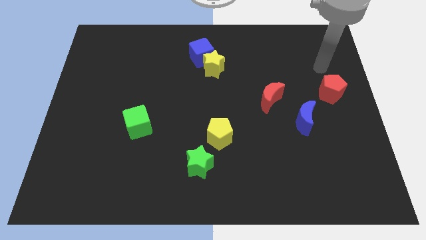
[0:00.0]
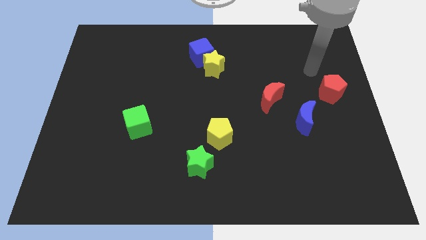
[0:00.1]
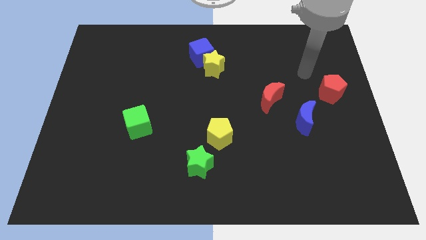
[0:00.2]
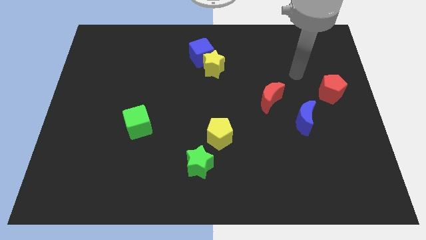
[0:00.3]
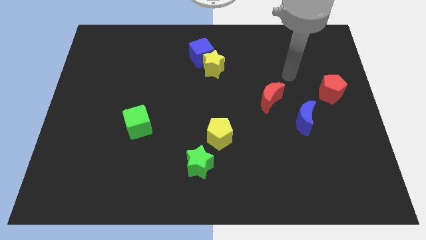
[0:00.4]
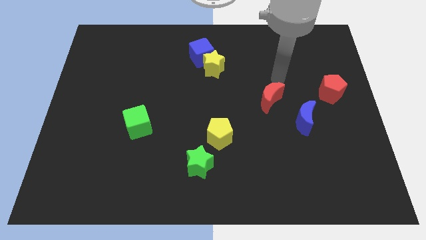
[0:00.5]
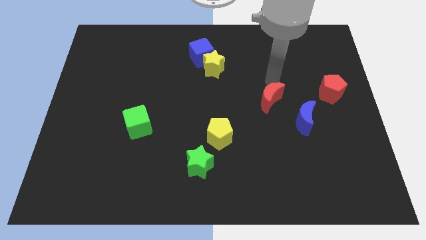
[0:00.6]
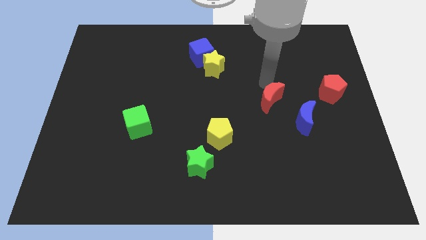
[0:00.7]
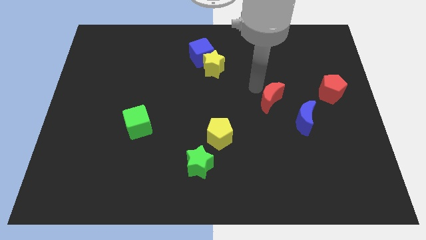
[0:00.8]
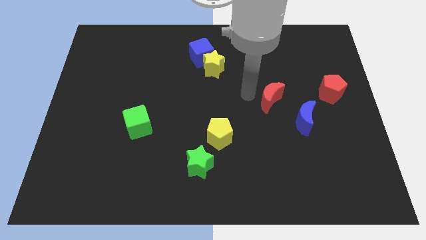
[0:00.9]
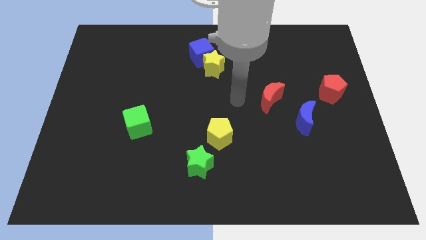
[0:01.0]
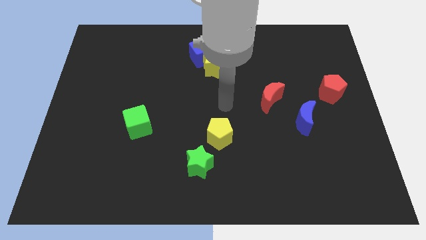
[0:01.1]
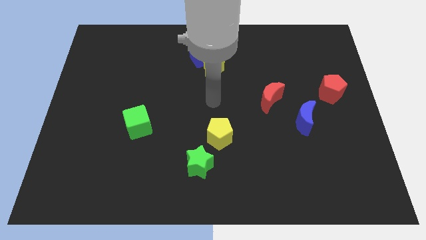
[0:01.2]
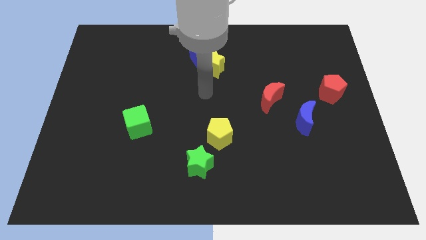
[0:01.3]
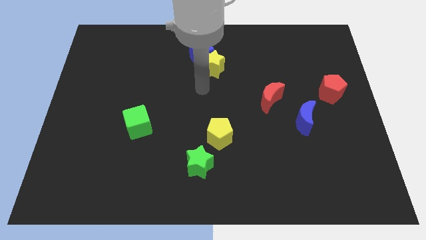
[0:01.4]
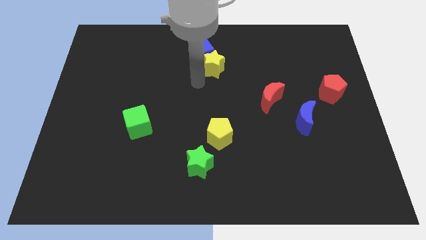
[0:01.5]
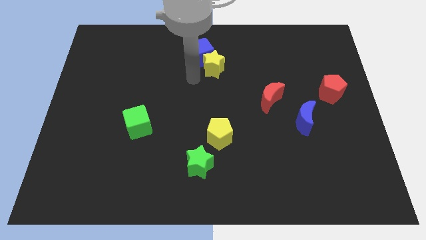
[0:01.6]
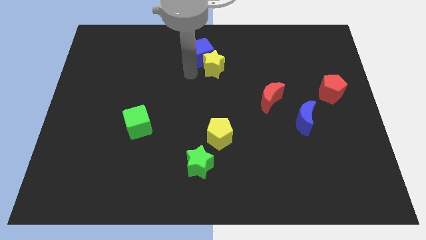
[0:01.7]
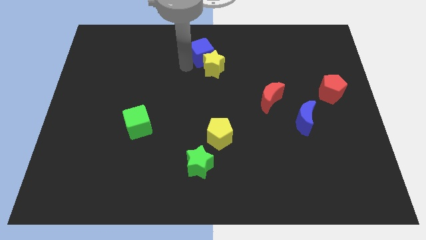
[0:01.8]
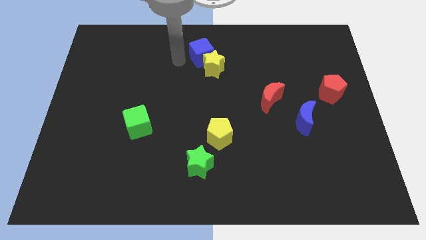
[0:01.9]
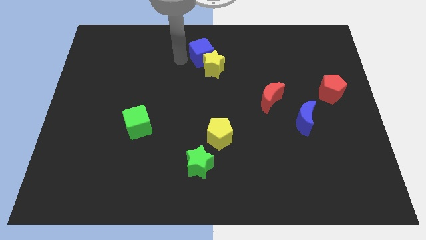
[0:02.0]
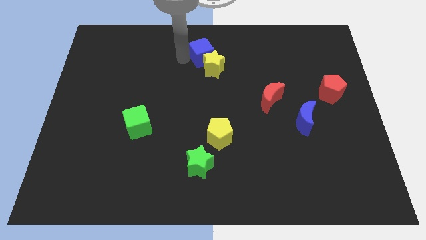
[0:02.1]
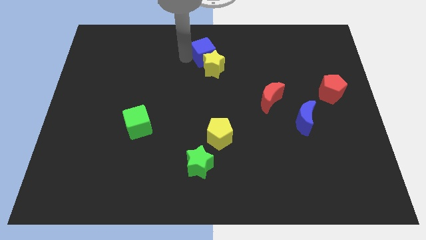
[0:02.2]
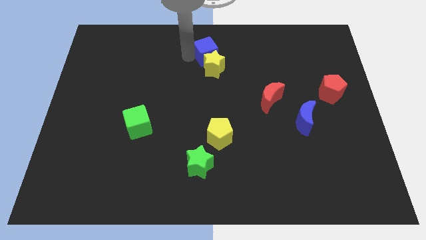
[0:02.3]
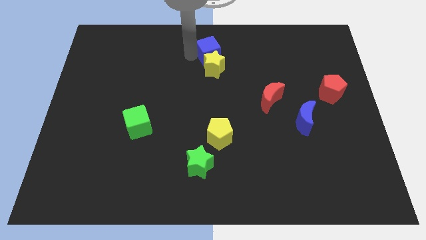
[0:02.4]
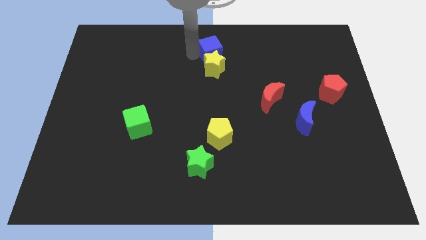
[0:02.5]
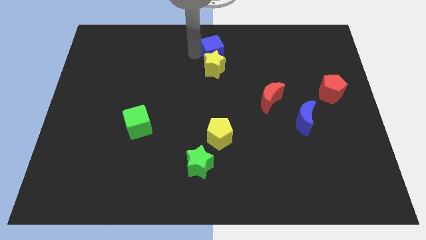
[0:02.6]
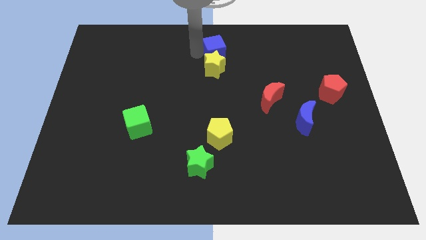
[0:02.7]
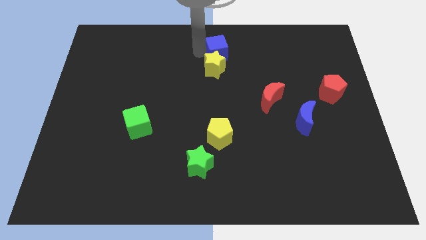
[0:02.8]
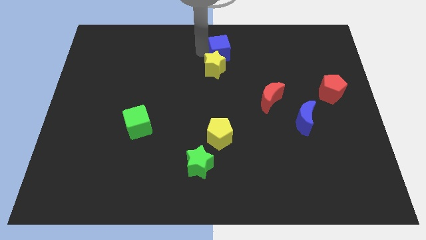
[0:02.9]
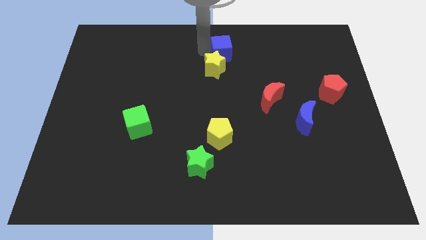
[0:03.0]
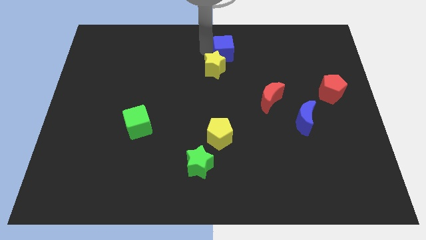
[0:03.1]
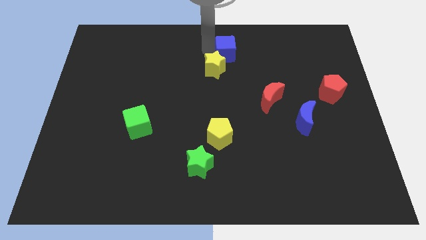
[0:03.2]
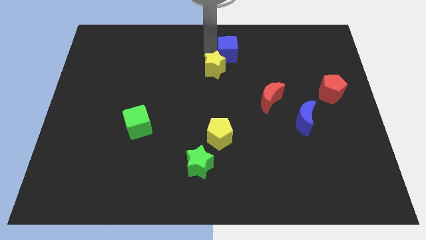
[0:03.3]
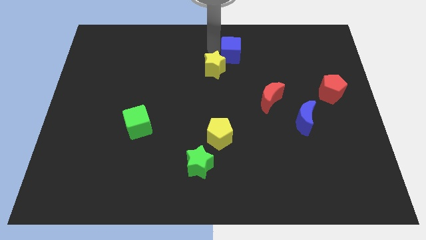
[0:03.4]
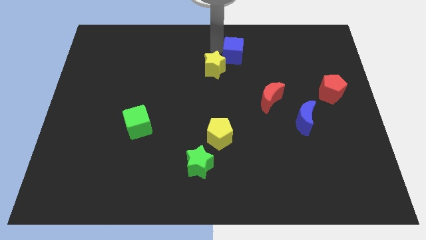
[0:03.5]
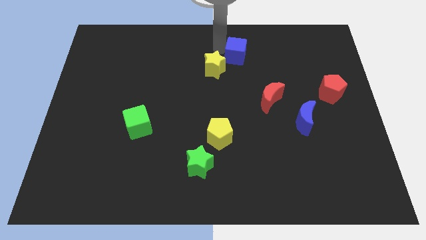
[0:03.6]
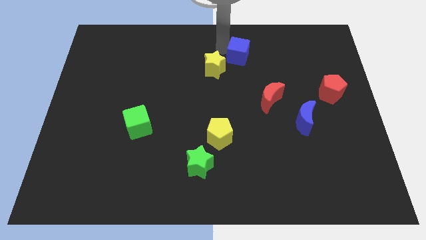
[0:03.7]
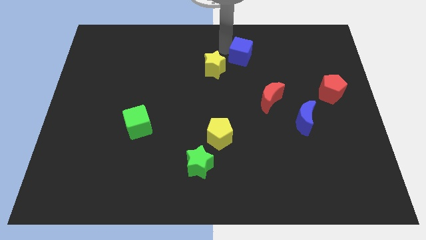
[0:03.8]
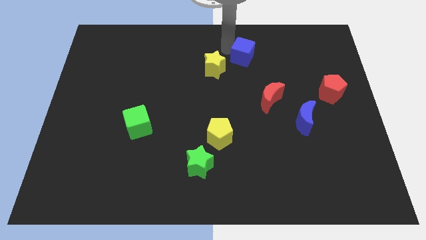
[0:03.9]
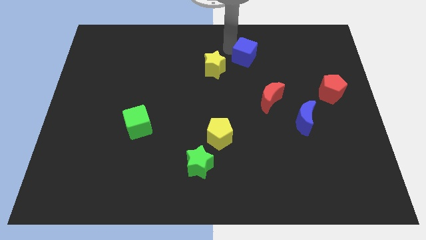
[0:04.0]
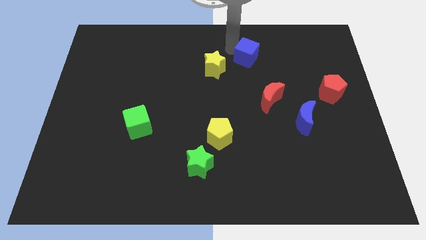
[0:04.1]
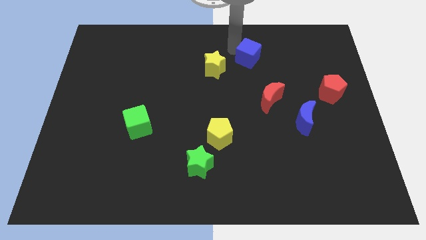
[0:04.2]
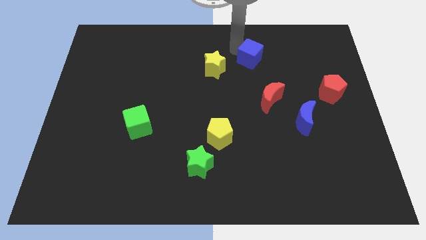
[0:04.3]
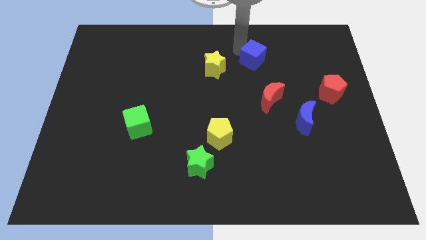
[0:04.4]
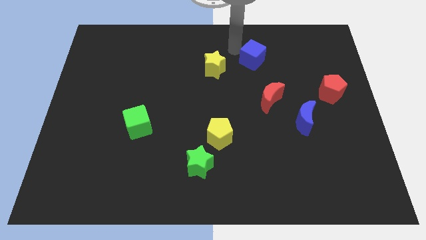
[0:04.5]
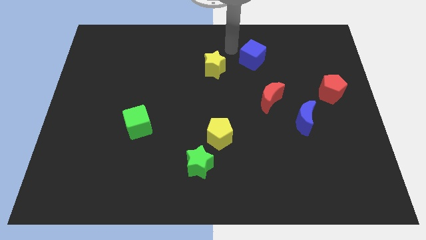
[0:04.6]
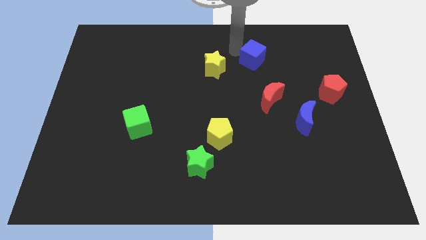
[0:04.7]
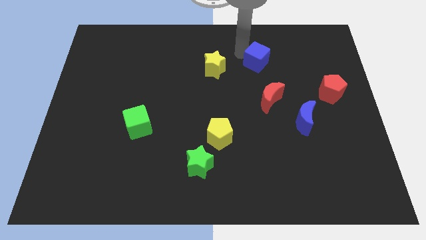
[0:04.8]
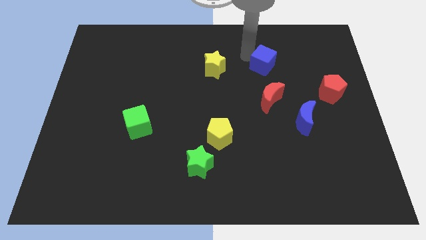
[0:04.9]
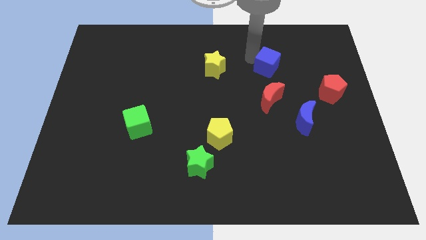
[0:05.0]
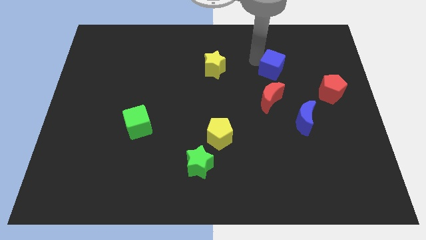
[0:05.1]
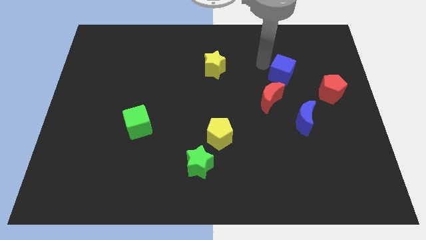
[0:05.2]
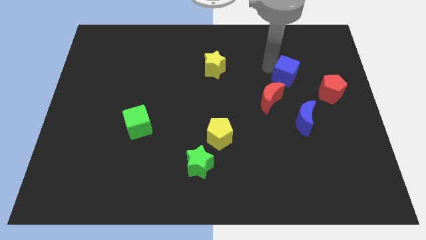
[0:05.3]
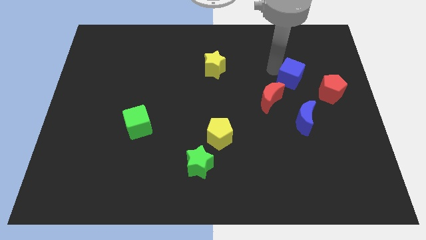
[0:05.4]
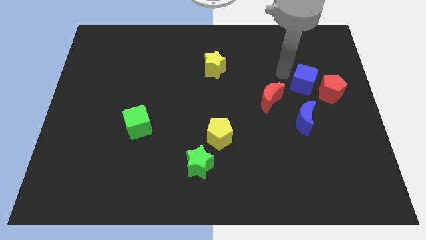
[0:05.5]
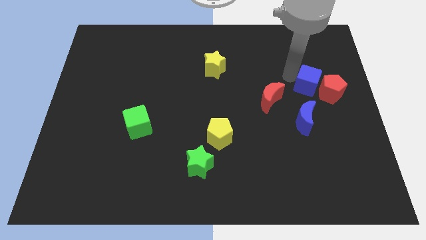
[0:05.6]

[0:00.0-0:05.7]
move the blue cube next to the red pentagon

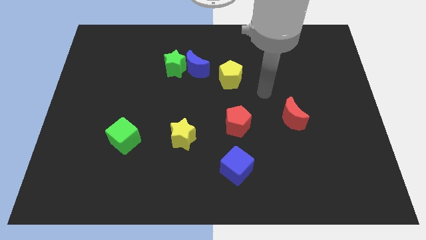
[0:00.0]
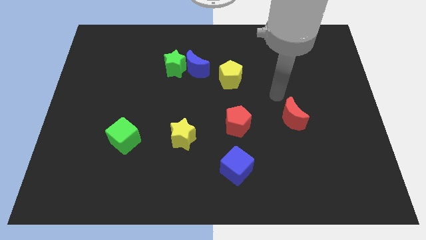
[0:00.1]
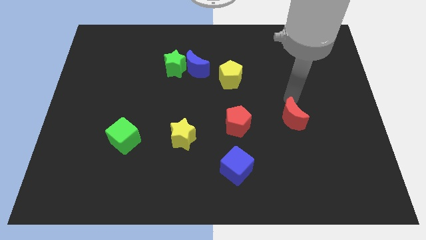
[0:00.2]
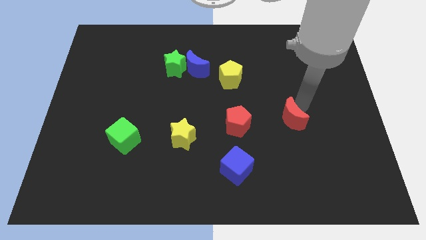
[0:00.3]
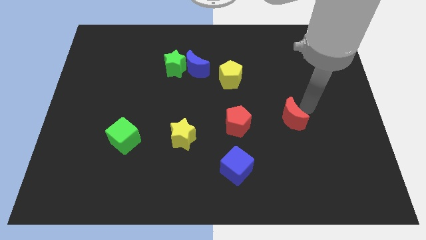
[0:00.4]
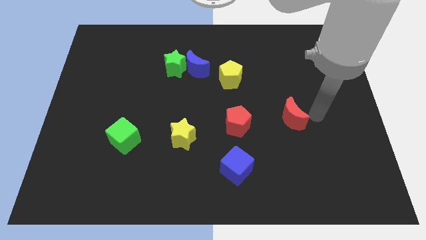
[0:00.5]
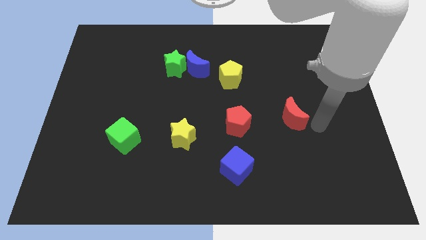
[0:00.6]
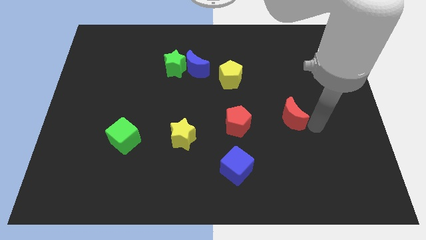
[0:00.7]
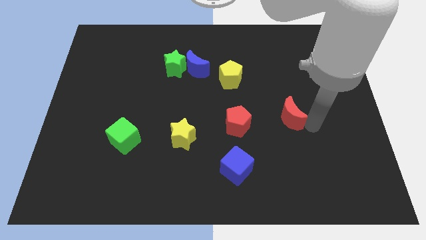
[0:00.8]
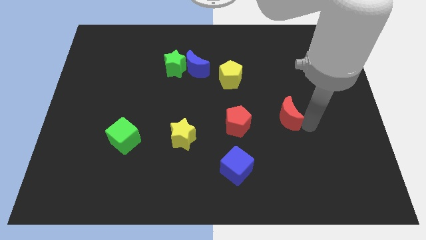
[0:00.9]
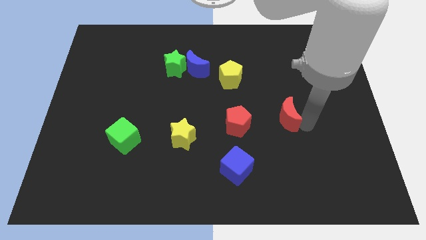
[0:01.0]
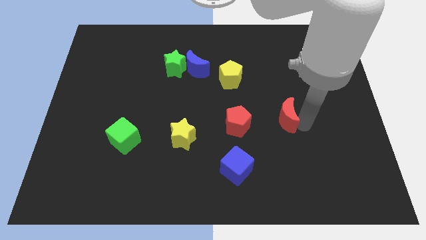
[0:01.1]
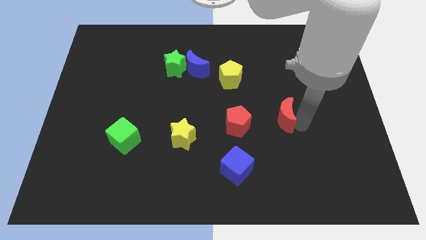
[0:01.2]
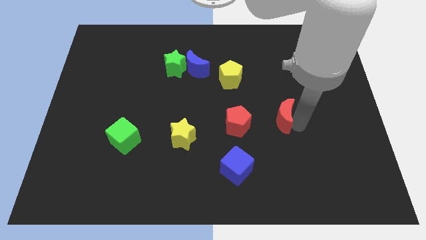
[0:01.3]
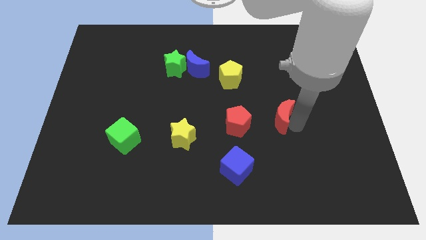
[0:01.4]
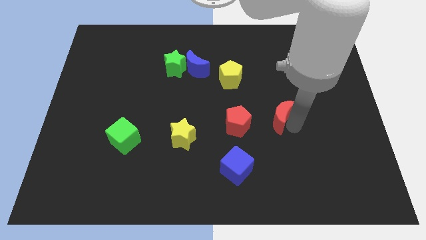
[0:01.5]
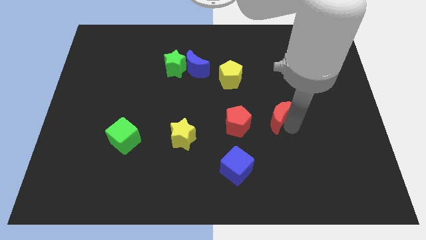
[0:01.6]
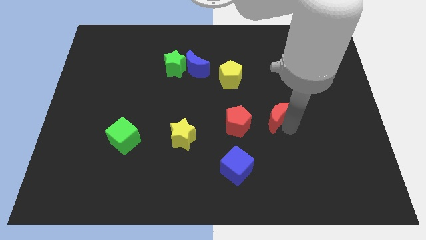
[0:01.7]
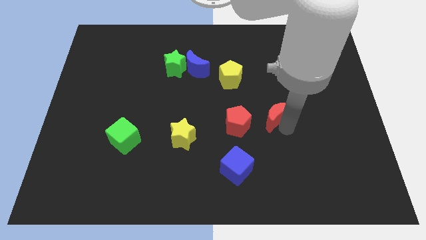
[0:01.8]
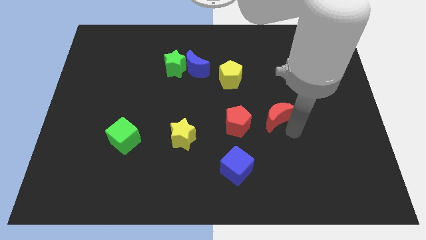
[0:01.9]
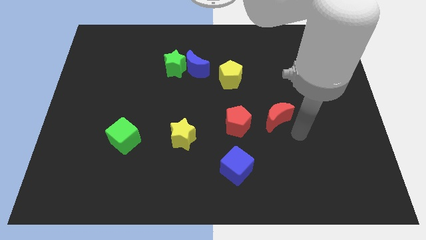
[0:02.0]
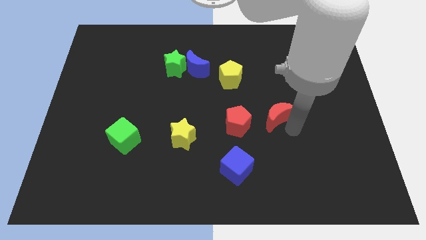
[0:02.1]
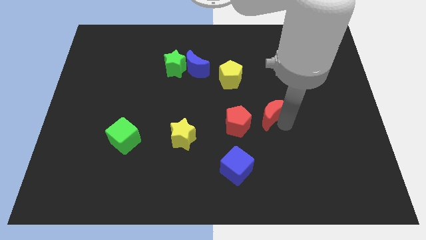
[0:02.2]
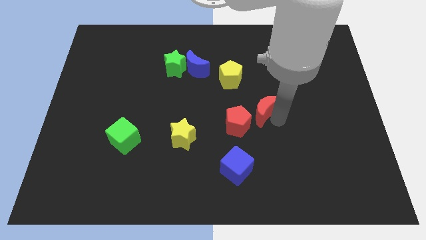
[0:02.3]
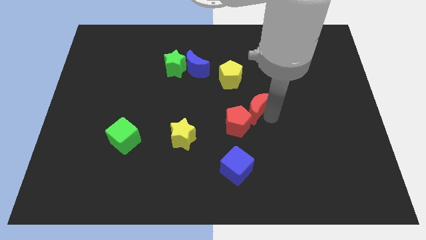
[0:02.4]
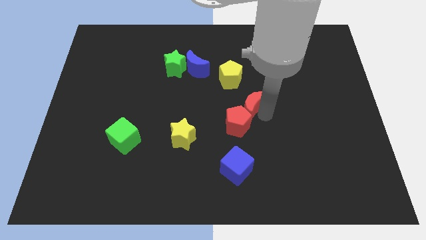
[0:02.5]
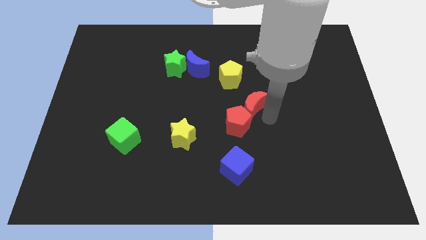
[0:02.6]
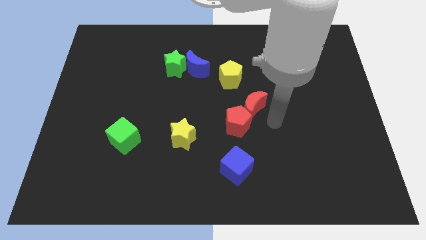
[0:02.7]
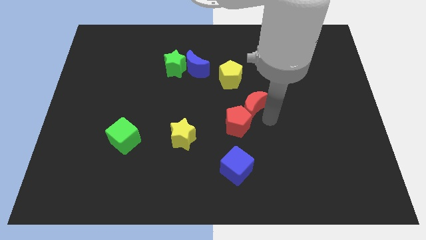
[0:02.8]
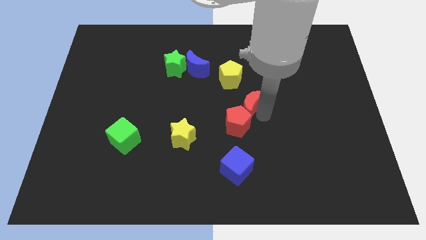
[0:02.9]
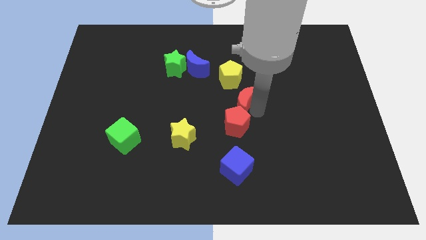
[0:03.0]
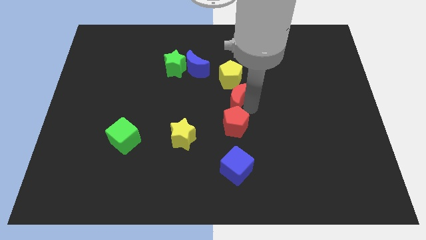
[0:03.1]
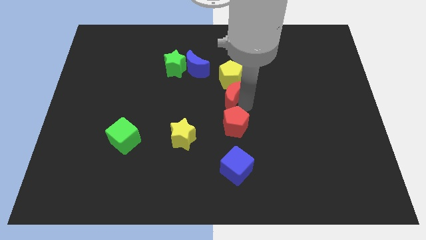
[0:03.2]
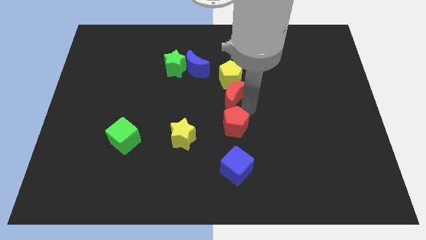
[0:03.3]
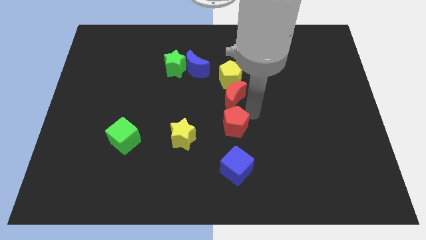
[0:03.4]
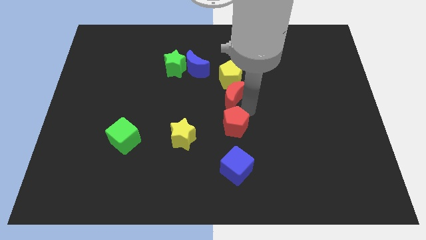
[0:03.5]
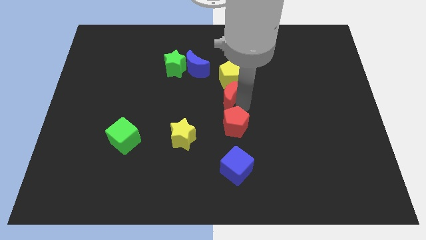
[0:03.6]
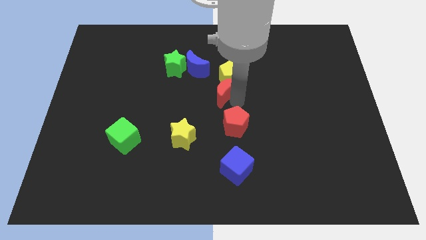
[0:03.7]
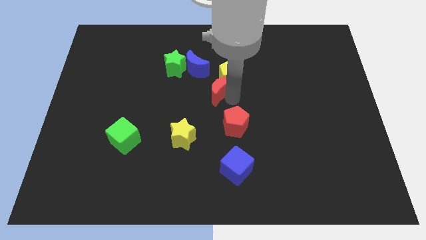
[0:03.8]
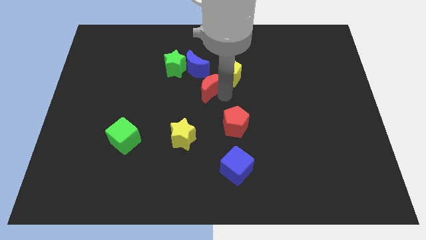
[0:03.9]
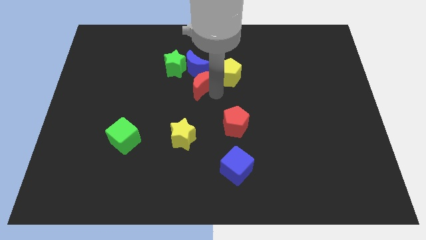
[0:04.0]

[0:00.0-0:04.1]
slide the red moon close to the blue moon
